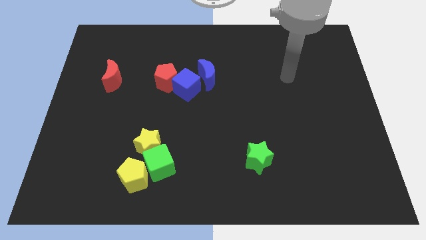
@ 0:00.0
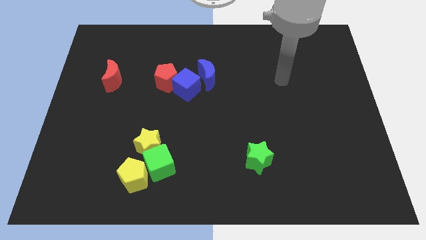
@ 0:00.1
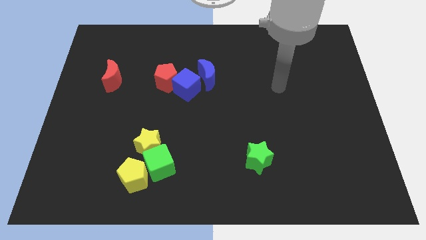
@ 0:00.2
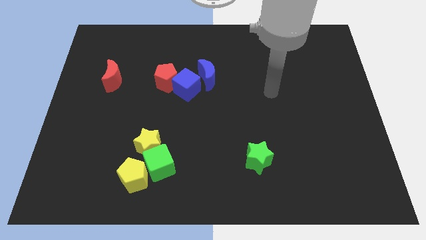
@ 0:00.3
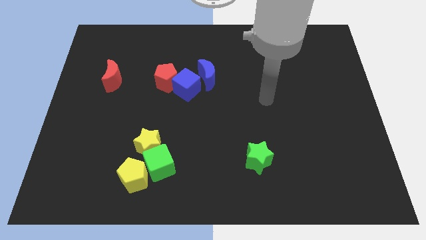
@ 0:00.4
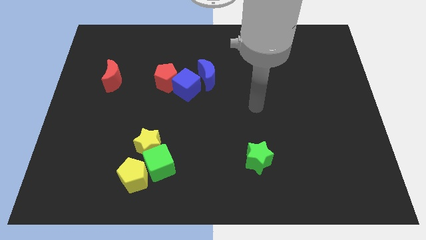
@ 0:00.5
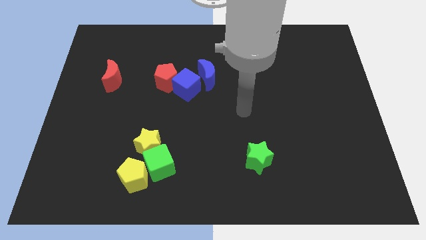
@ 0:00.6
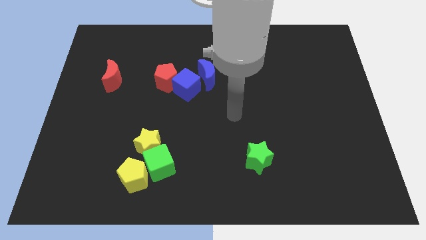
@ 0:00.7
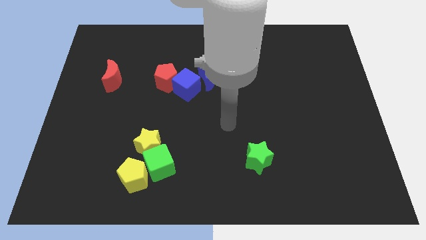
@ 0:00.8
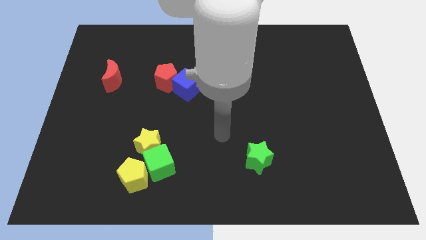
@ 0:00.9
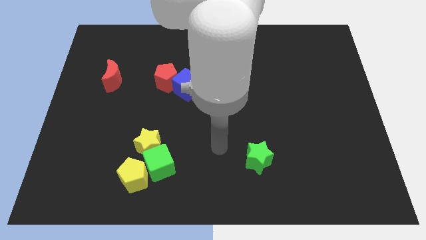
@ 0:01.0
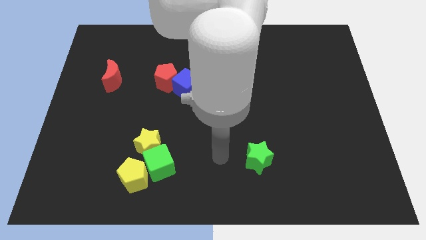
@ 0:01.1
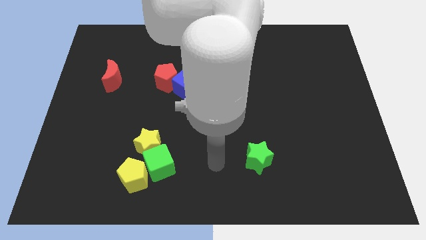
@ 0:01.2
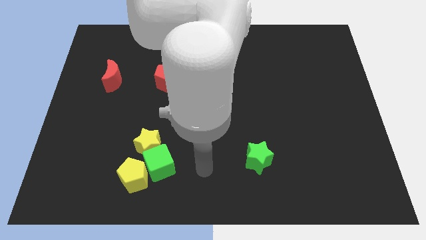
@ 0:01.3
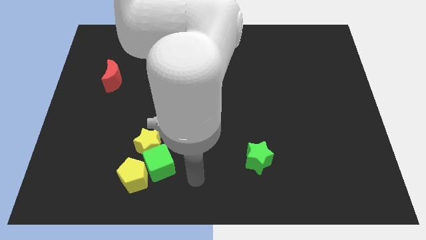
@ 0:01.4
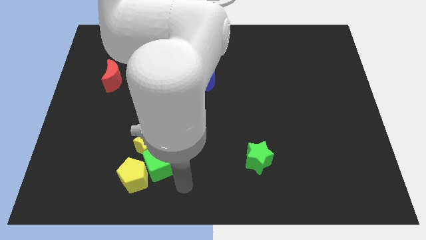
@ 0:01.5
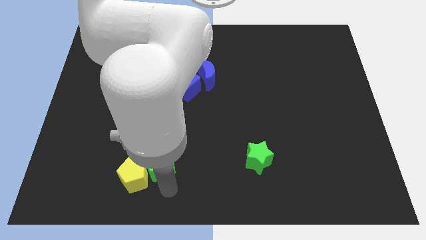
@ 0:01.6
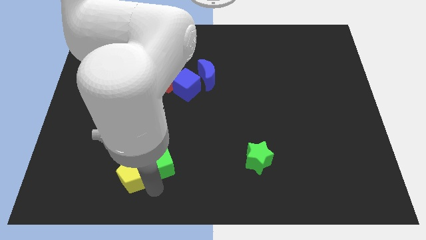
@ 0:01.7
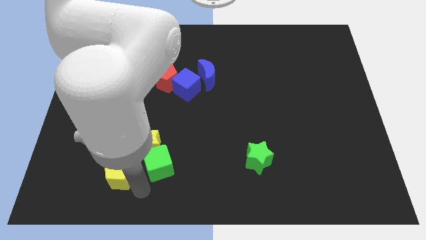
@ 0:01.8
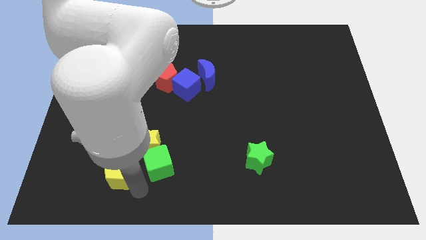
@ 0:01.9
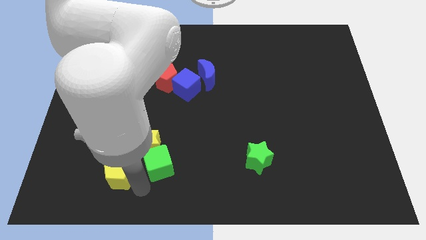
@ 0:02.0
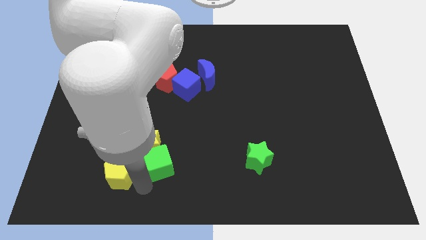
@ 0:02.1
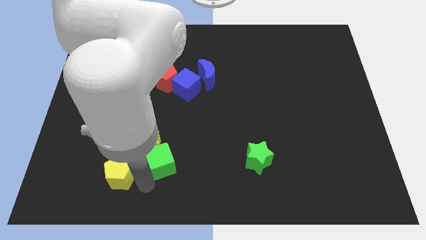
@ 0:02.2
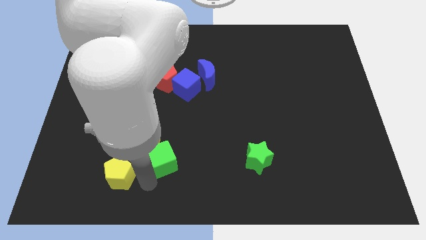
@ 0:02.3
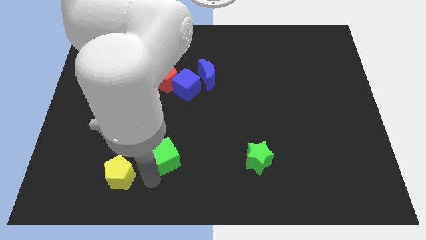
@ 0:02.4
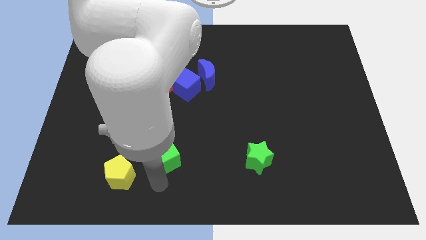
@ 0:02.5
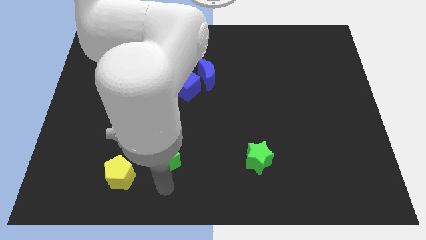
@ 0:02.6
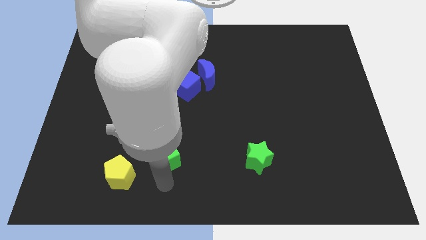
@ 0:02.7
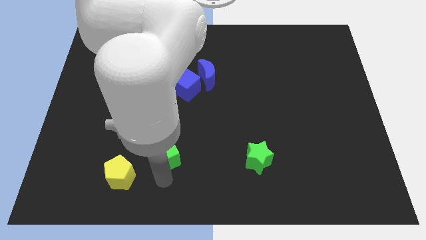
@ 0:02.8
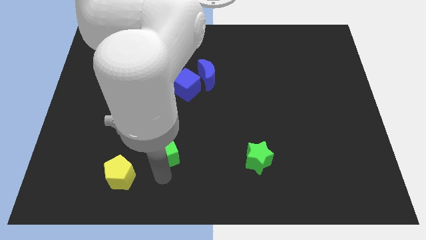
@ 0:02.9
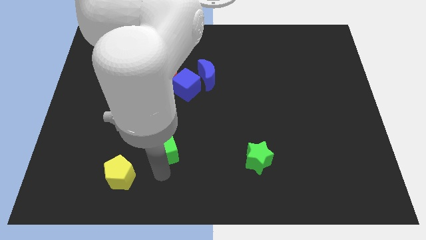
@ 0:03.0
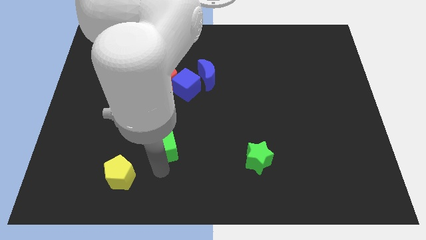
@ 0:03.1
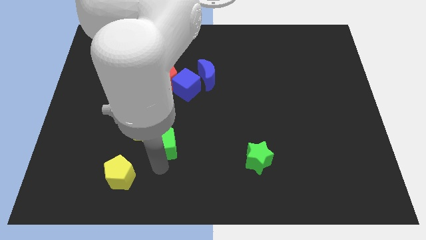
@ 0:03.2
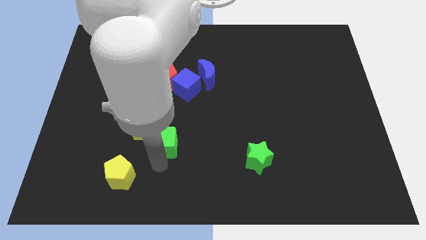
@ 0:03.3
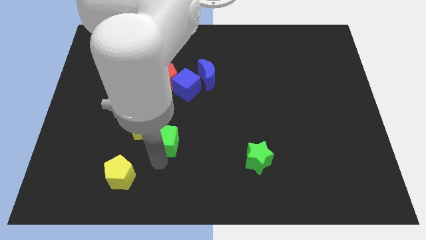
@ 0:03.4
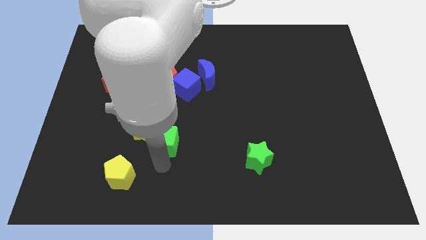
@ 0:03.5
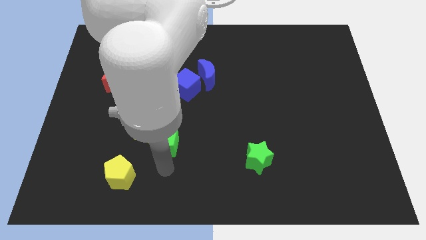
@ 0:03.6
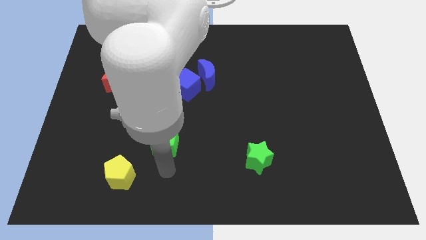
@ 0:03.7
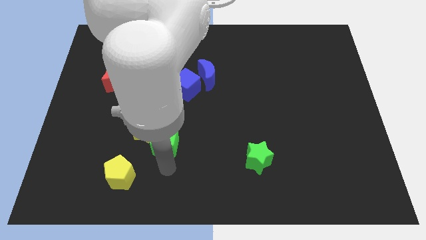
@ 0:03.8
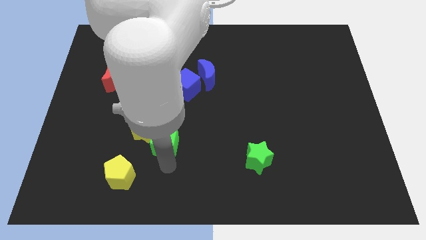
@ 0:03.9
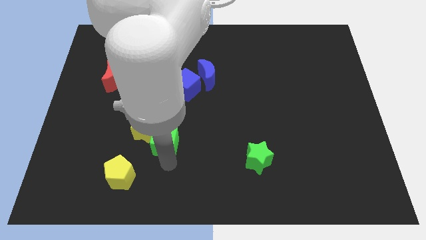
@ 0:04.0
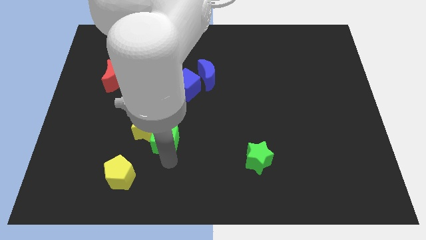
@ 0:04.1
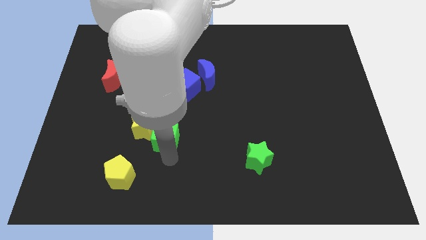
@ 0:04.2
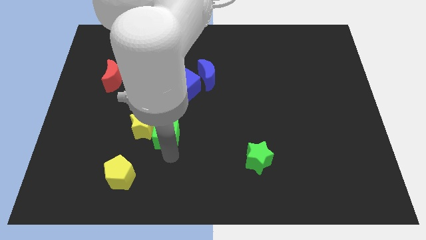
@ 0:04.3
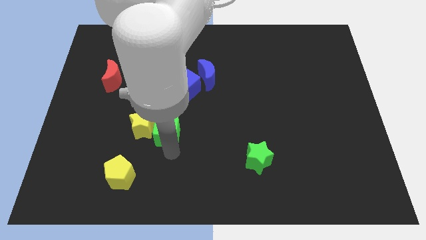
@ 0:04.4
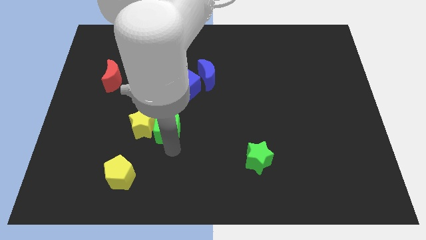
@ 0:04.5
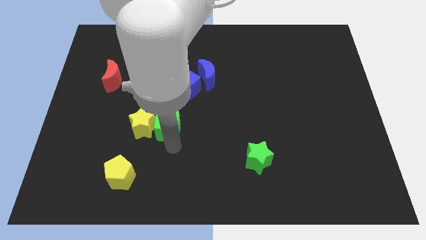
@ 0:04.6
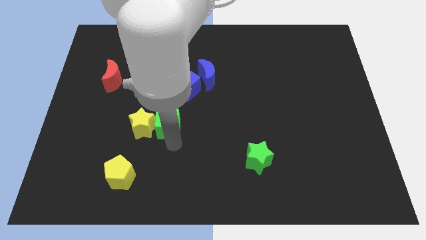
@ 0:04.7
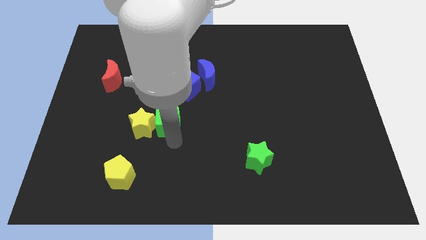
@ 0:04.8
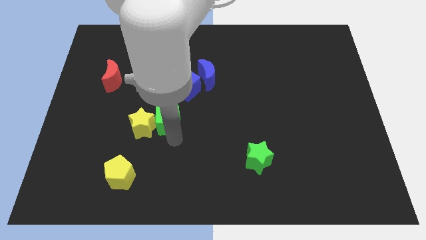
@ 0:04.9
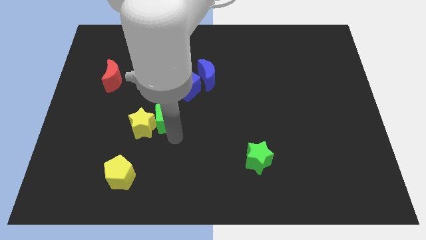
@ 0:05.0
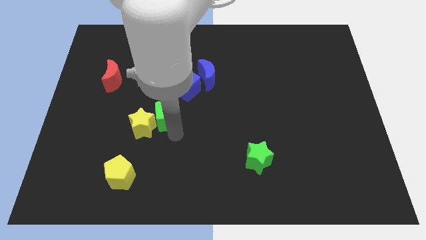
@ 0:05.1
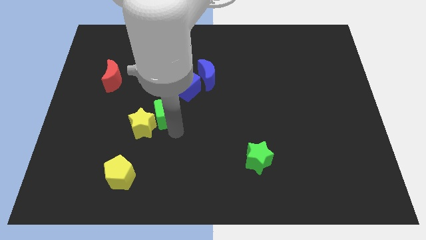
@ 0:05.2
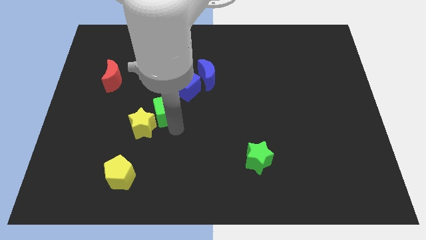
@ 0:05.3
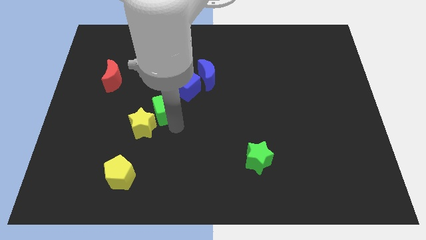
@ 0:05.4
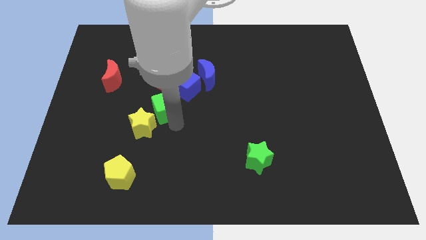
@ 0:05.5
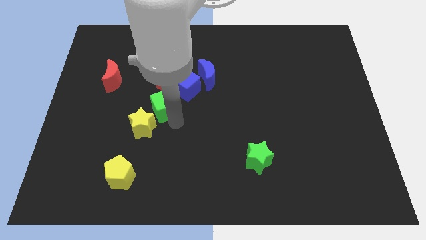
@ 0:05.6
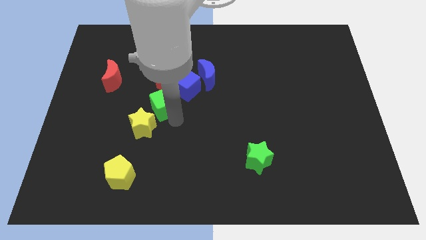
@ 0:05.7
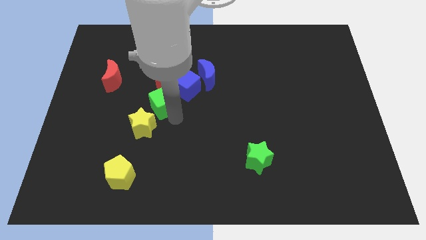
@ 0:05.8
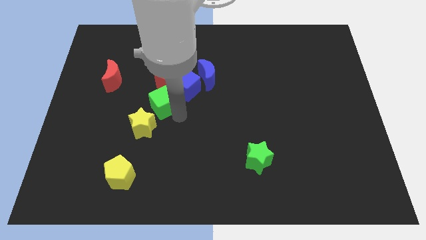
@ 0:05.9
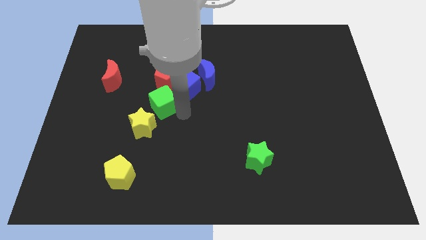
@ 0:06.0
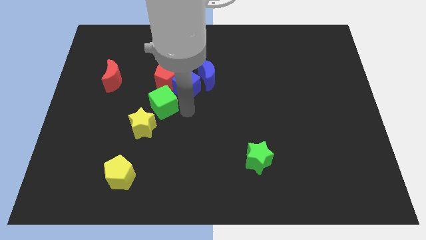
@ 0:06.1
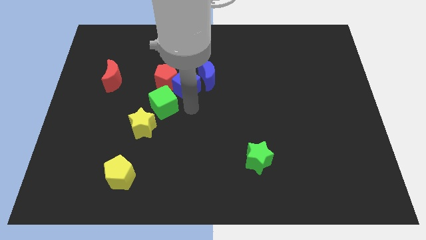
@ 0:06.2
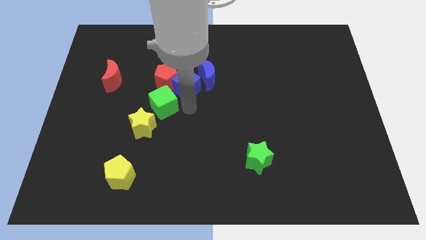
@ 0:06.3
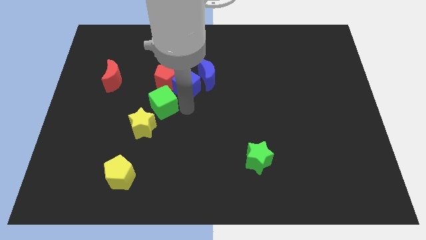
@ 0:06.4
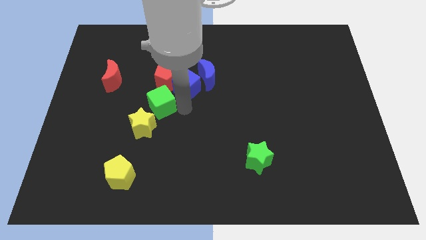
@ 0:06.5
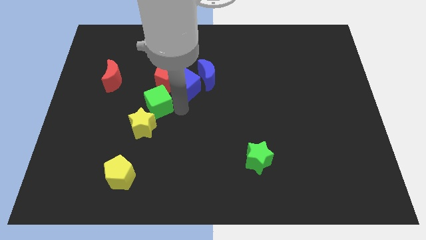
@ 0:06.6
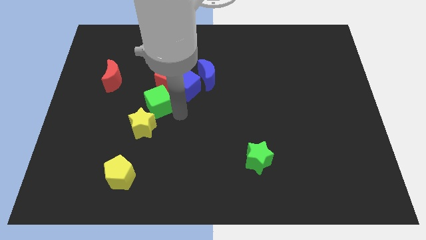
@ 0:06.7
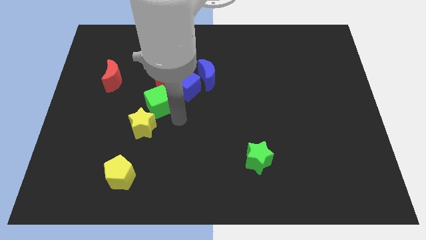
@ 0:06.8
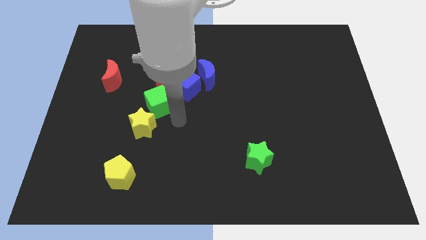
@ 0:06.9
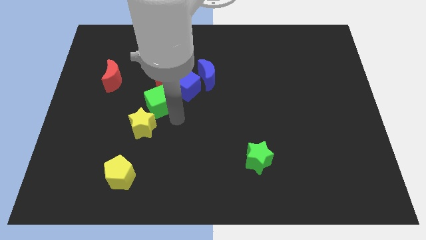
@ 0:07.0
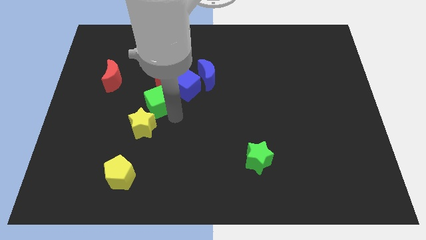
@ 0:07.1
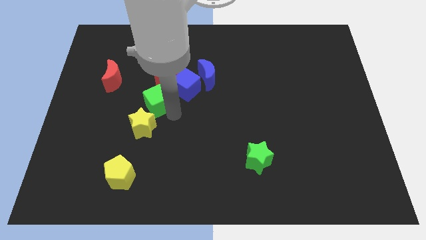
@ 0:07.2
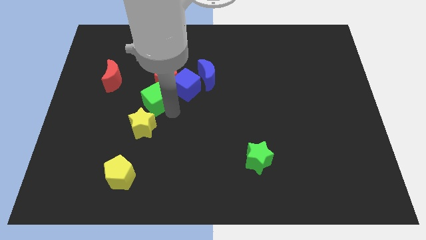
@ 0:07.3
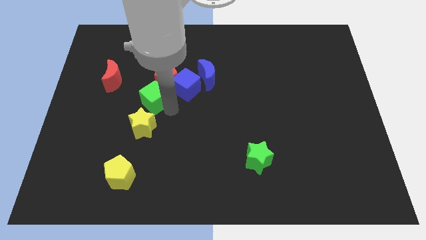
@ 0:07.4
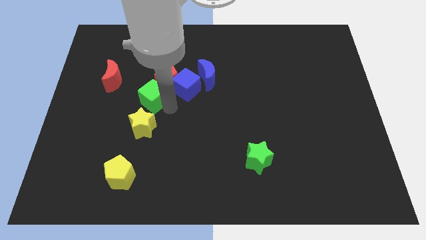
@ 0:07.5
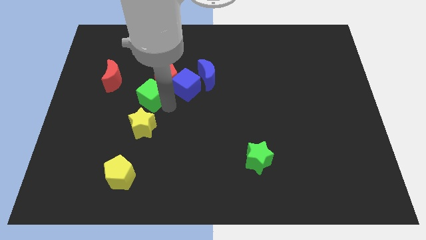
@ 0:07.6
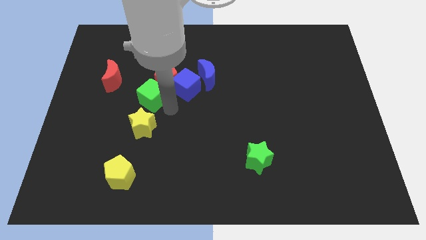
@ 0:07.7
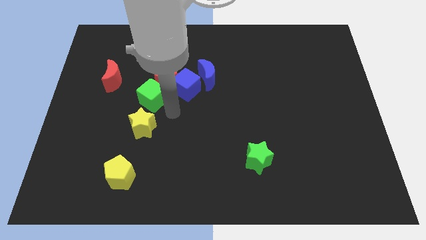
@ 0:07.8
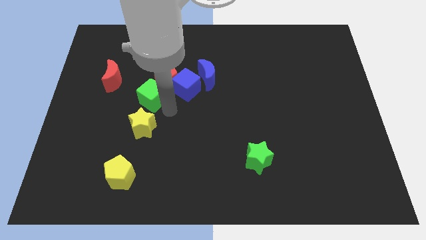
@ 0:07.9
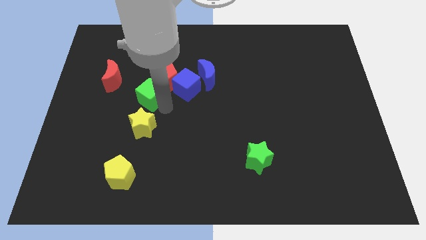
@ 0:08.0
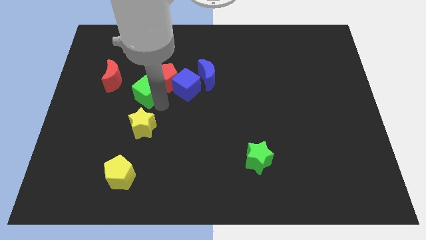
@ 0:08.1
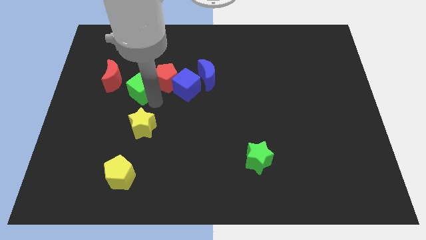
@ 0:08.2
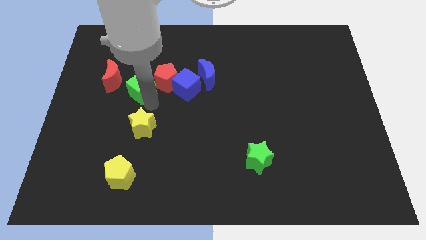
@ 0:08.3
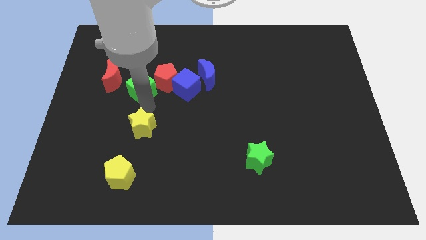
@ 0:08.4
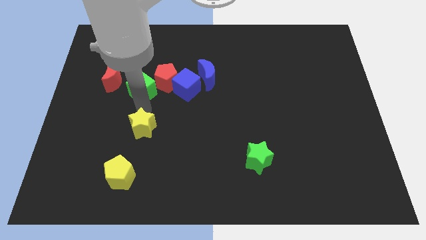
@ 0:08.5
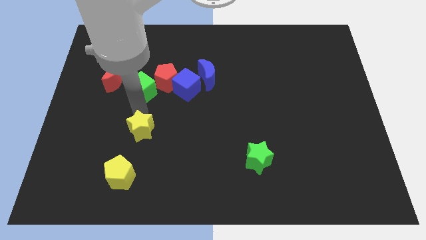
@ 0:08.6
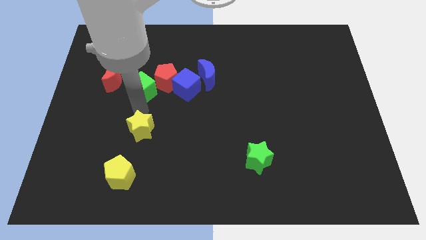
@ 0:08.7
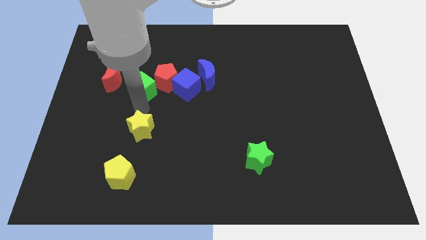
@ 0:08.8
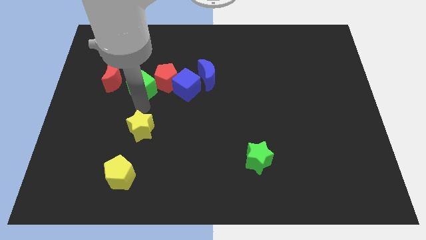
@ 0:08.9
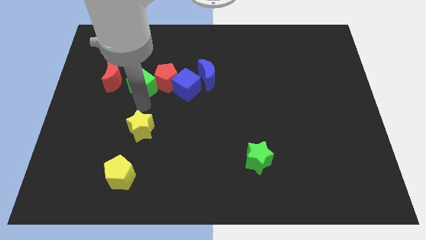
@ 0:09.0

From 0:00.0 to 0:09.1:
move the green cube up
